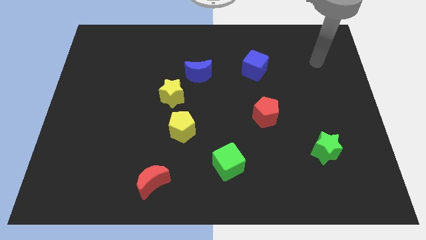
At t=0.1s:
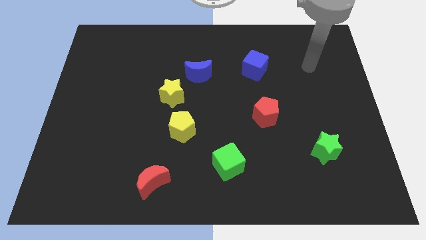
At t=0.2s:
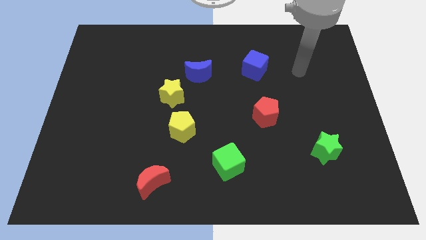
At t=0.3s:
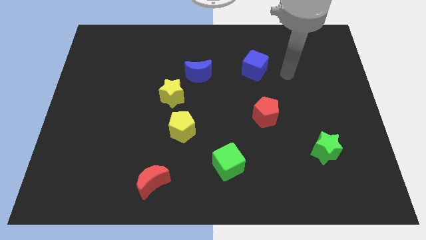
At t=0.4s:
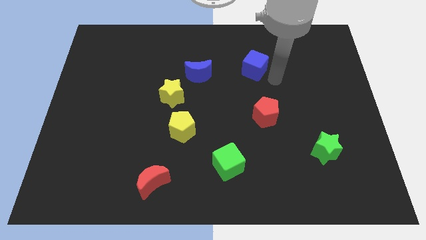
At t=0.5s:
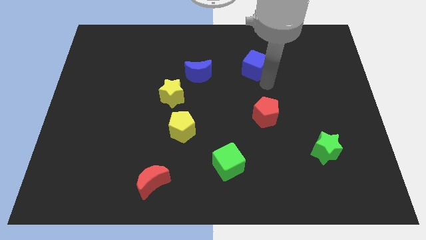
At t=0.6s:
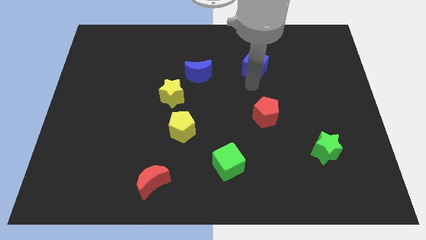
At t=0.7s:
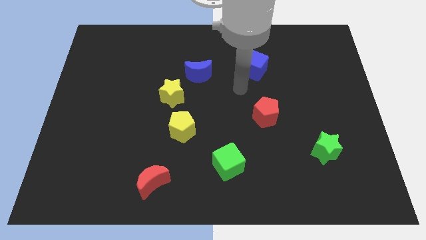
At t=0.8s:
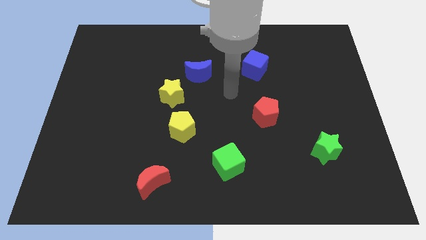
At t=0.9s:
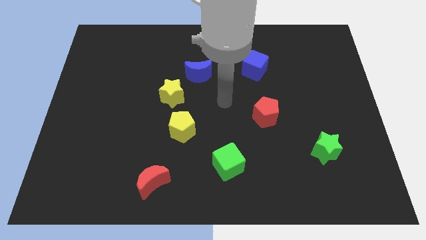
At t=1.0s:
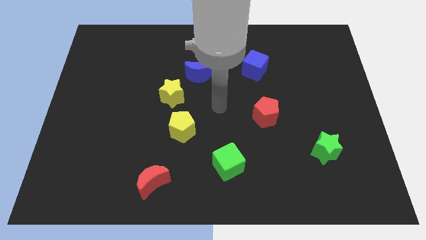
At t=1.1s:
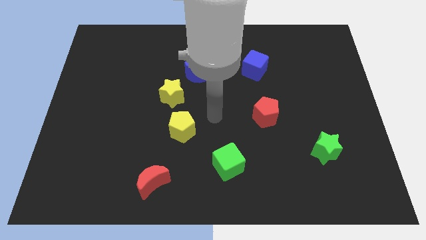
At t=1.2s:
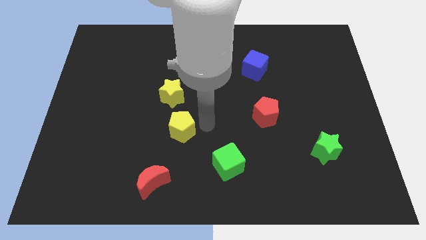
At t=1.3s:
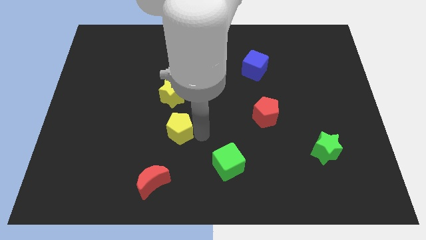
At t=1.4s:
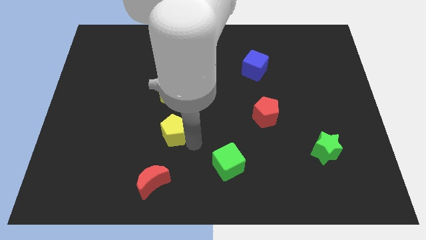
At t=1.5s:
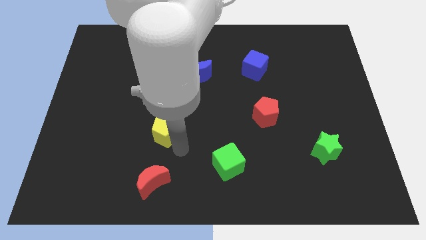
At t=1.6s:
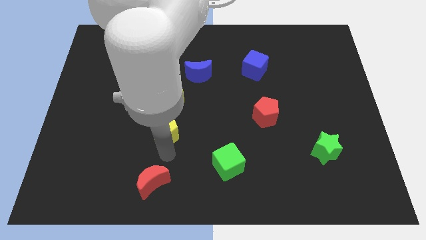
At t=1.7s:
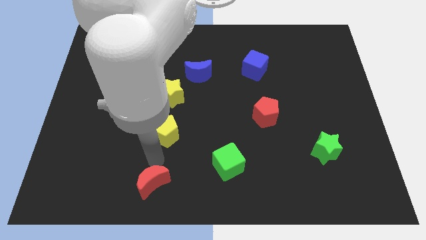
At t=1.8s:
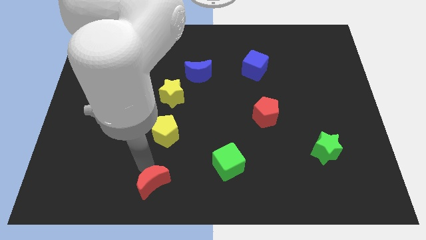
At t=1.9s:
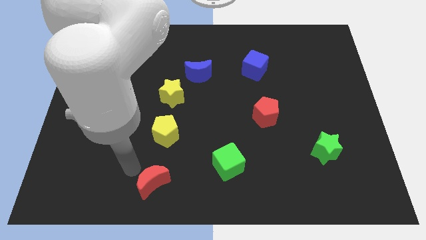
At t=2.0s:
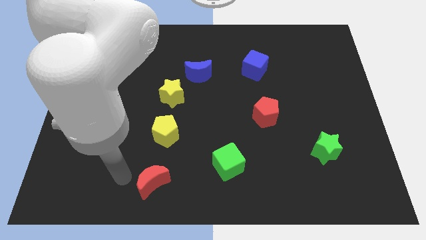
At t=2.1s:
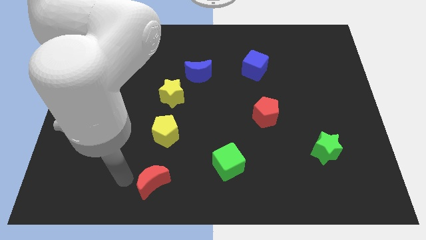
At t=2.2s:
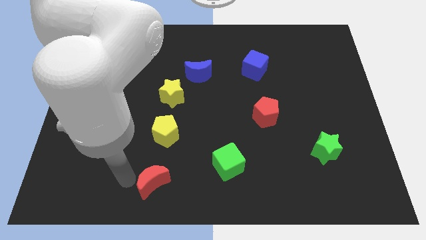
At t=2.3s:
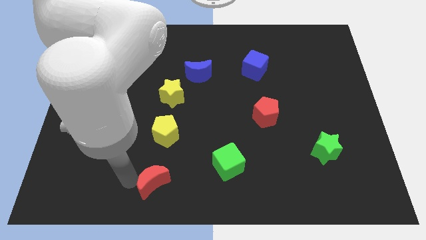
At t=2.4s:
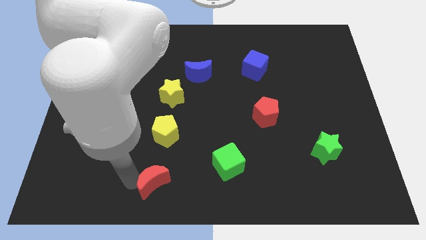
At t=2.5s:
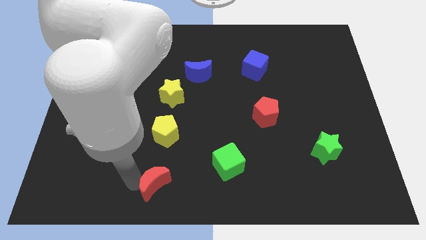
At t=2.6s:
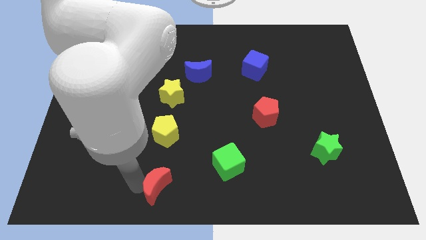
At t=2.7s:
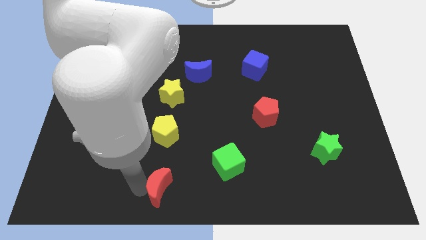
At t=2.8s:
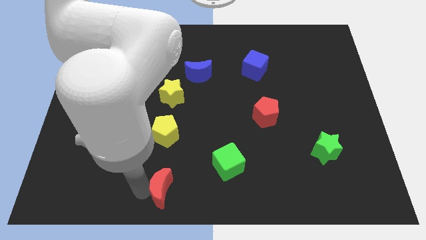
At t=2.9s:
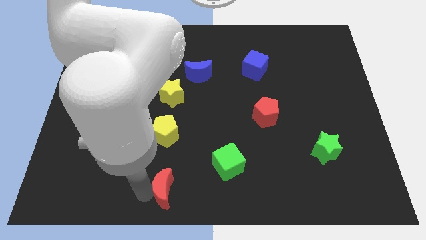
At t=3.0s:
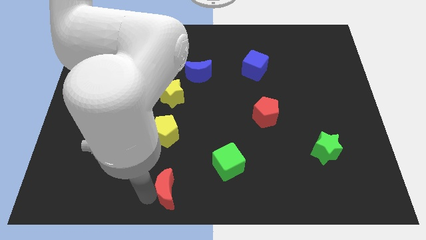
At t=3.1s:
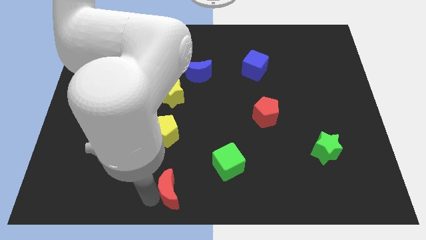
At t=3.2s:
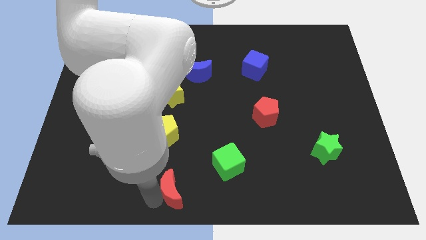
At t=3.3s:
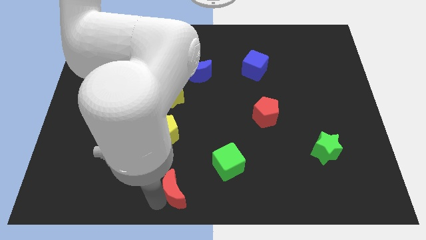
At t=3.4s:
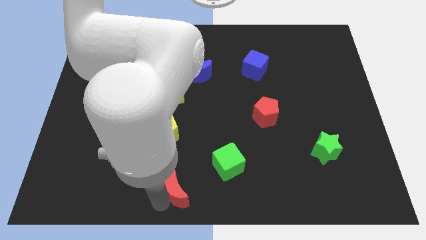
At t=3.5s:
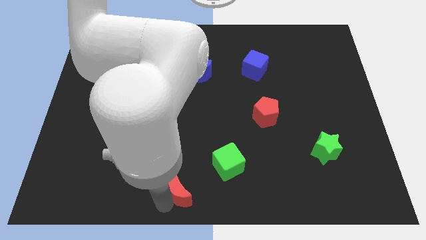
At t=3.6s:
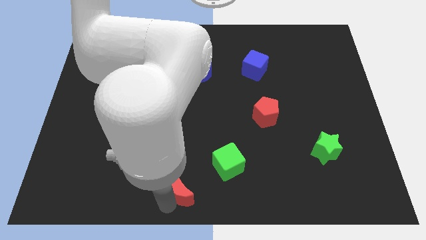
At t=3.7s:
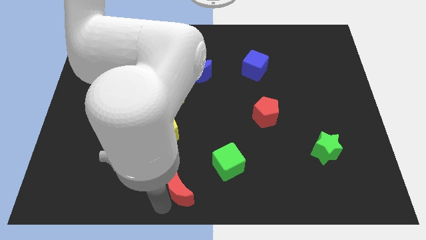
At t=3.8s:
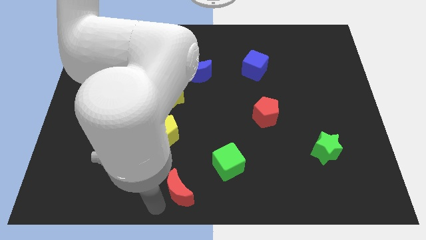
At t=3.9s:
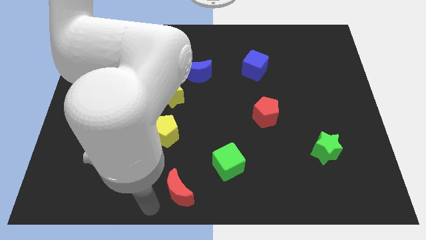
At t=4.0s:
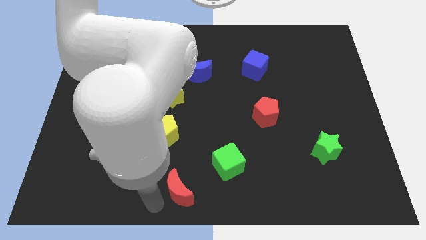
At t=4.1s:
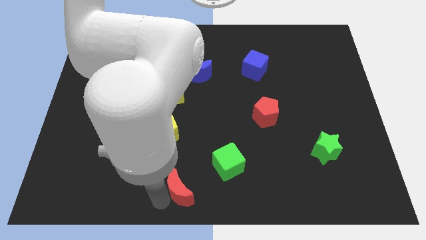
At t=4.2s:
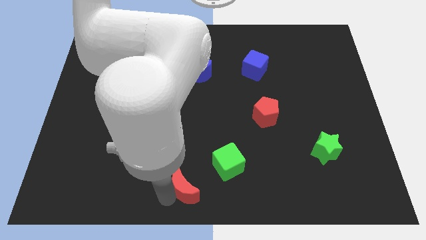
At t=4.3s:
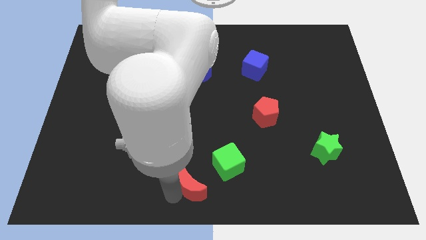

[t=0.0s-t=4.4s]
move the red moon a little right

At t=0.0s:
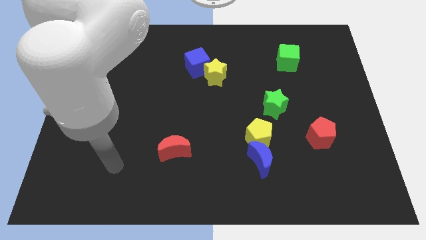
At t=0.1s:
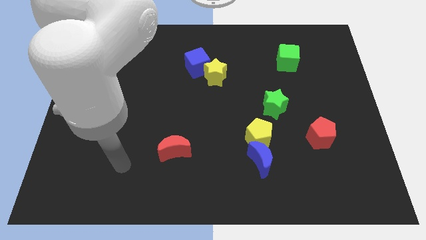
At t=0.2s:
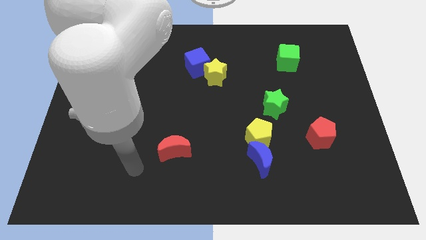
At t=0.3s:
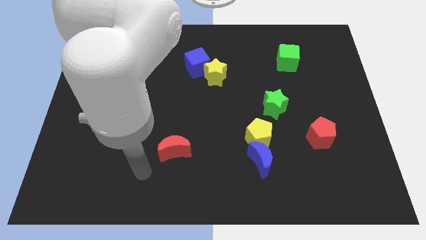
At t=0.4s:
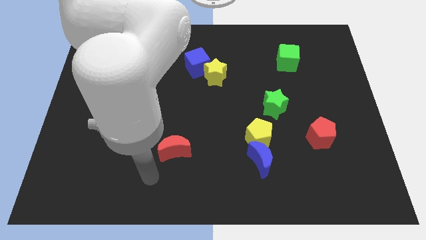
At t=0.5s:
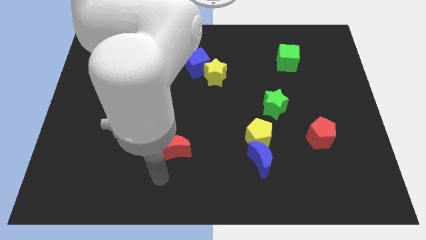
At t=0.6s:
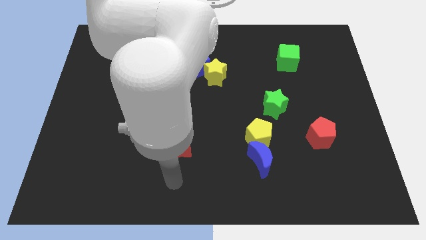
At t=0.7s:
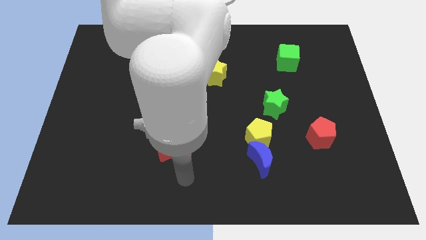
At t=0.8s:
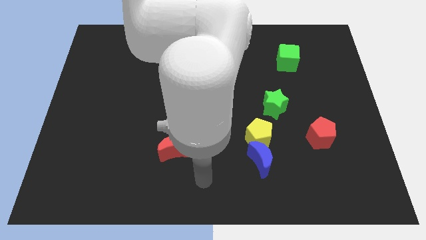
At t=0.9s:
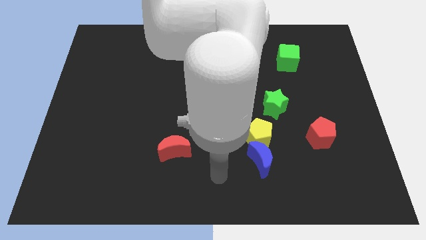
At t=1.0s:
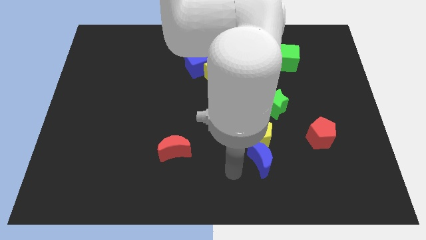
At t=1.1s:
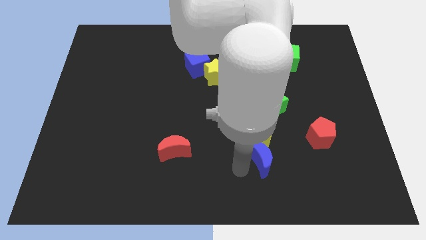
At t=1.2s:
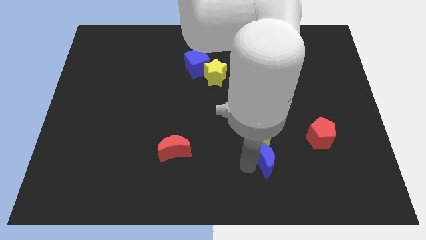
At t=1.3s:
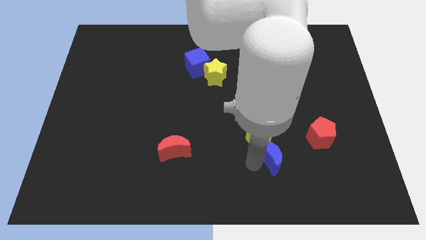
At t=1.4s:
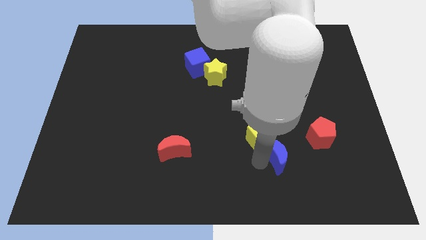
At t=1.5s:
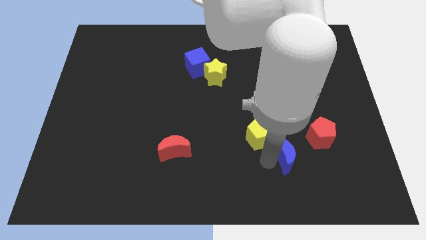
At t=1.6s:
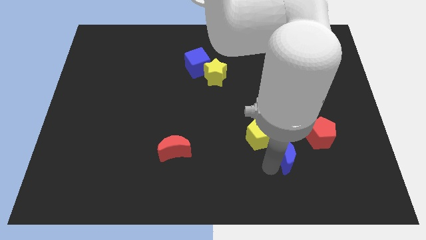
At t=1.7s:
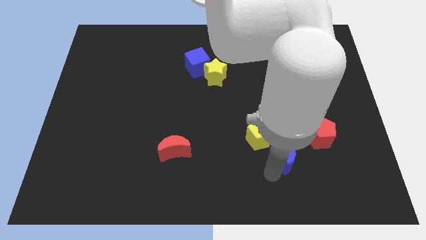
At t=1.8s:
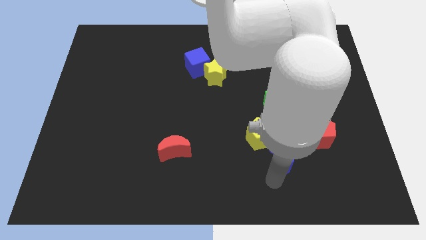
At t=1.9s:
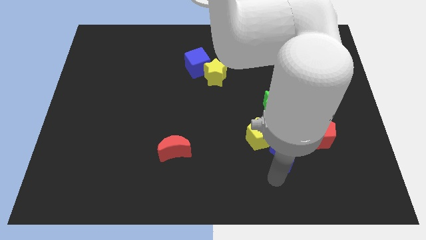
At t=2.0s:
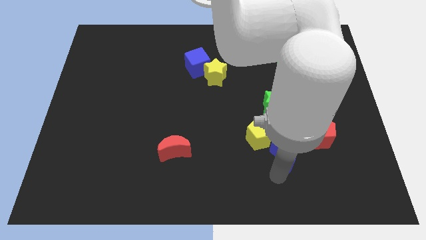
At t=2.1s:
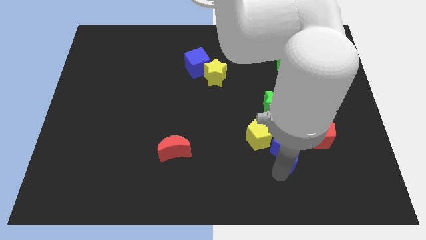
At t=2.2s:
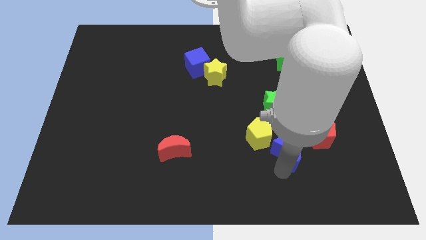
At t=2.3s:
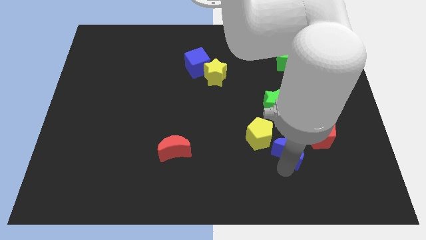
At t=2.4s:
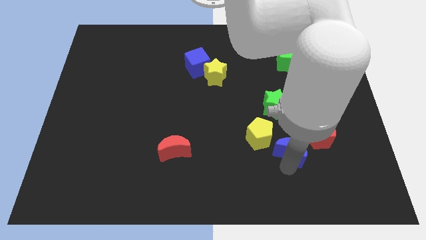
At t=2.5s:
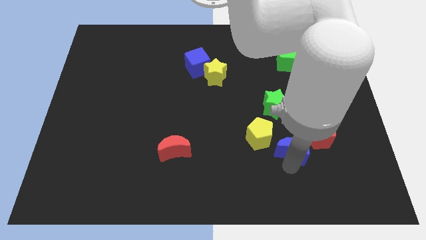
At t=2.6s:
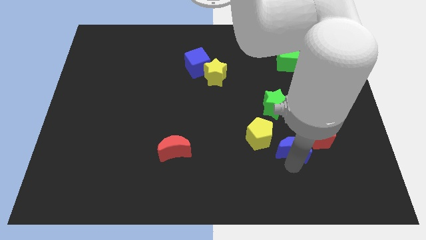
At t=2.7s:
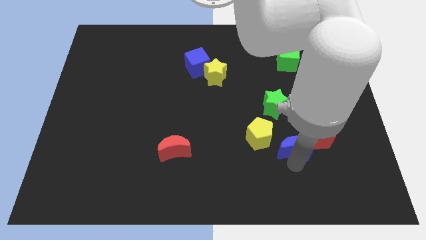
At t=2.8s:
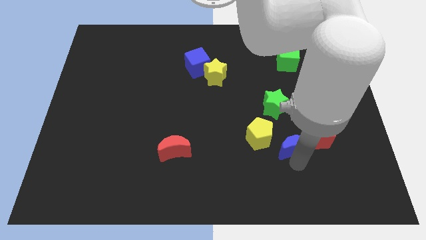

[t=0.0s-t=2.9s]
slightly slide the blue moon upwards and right
